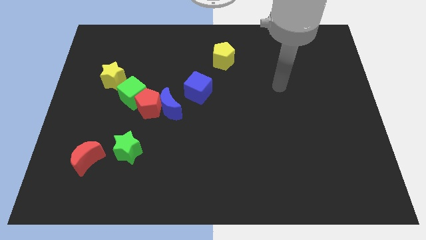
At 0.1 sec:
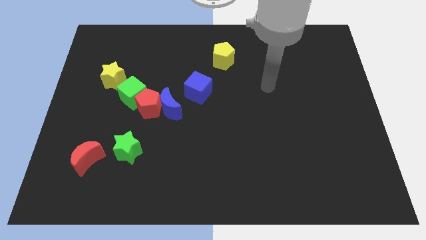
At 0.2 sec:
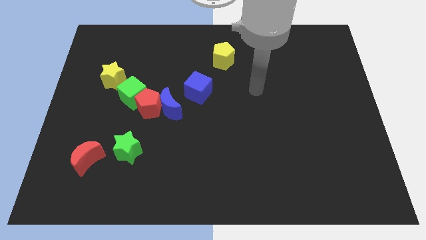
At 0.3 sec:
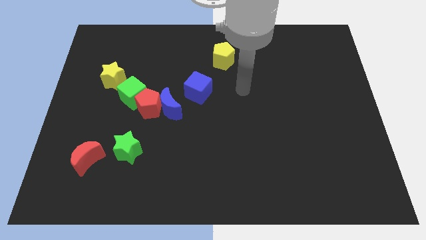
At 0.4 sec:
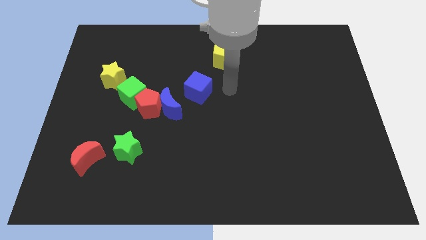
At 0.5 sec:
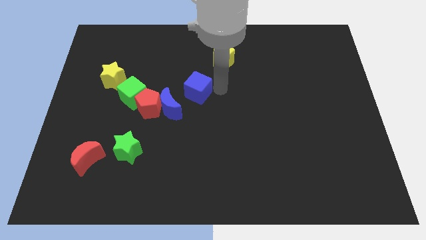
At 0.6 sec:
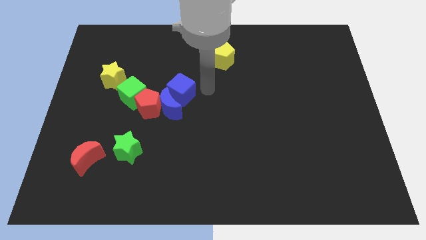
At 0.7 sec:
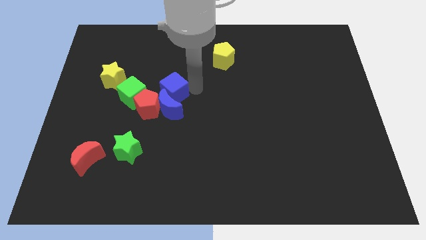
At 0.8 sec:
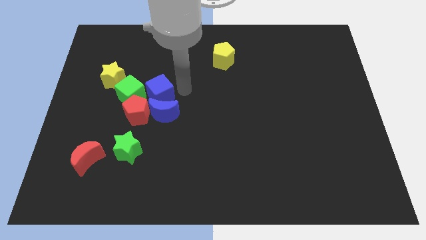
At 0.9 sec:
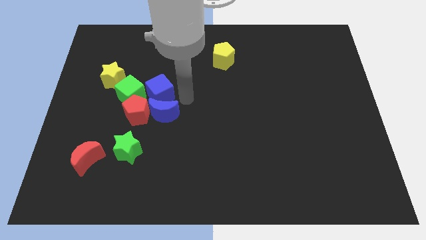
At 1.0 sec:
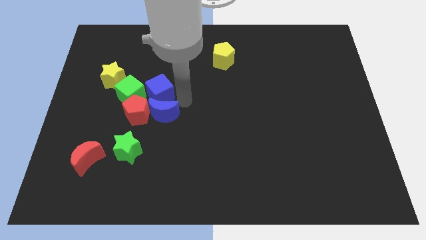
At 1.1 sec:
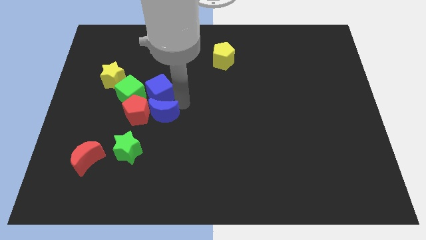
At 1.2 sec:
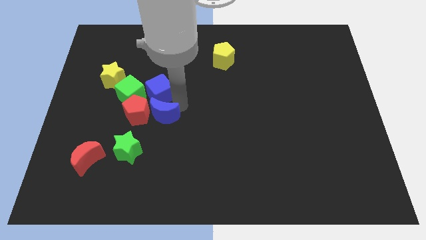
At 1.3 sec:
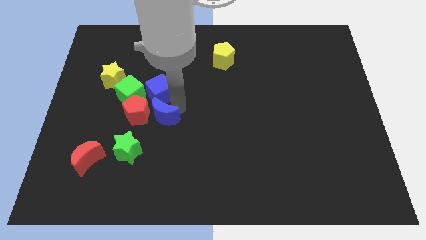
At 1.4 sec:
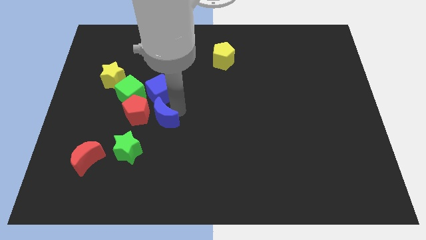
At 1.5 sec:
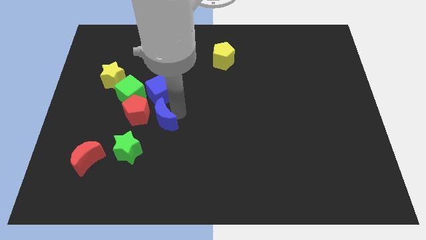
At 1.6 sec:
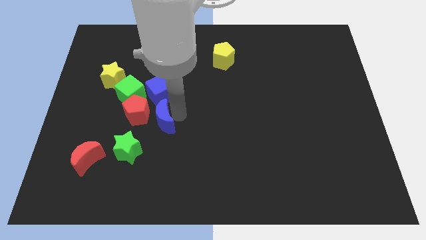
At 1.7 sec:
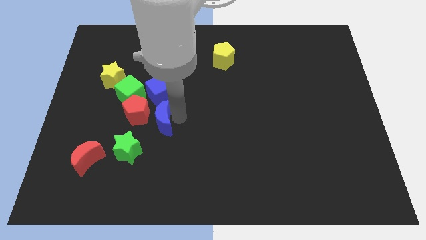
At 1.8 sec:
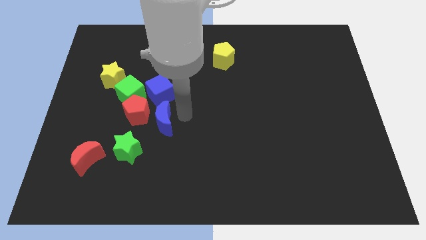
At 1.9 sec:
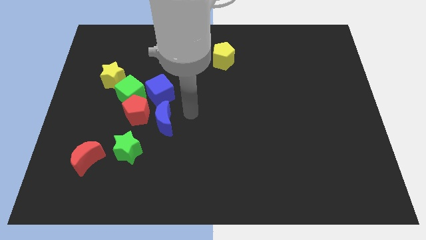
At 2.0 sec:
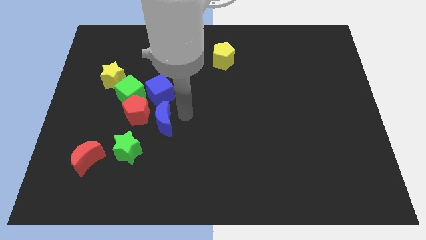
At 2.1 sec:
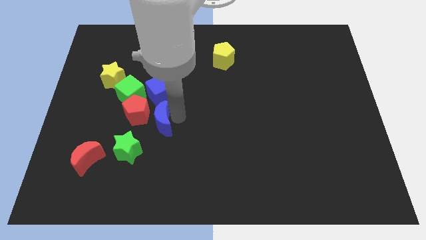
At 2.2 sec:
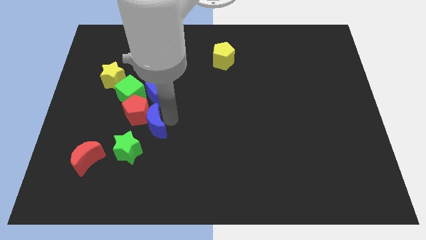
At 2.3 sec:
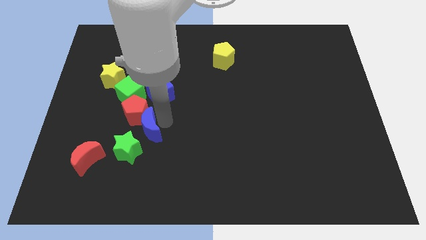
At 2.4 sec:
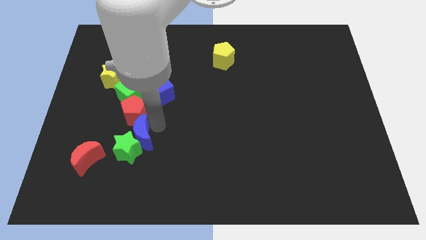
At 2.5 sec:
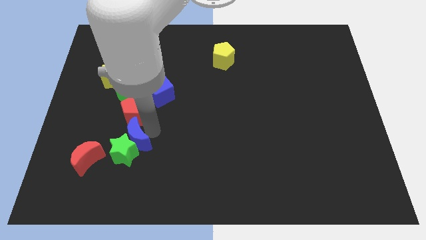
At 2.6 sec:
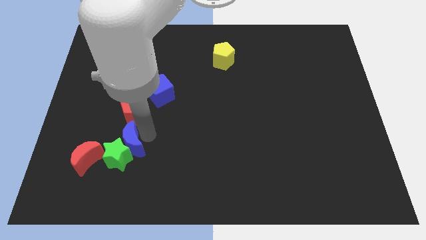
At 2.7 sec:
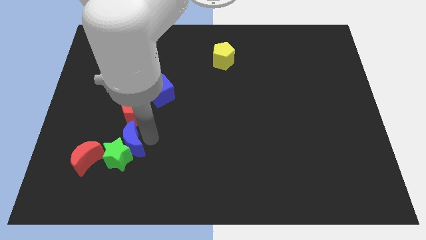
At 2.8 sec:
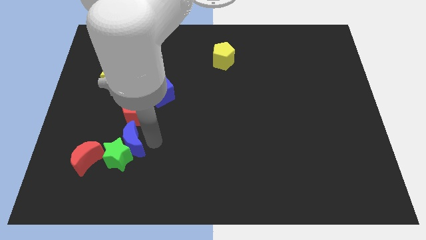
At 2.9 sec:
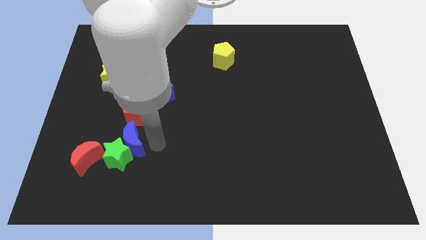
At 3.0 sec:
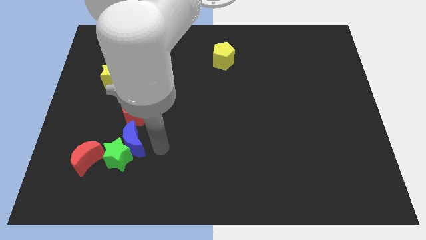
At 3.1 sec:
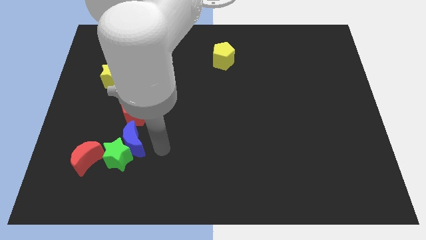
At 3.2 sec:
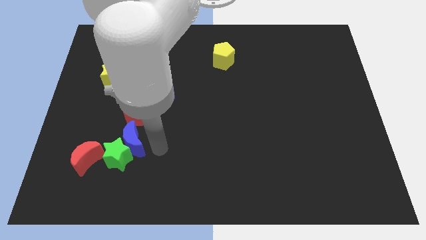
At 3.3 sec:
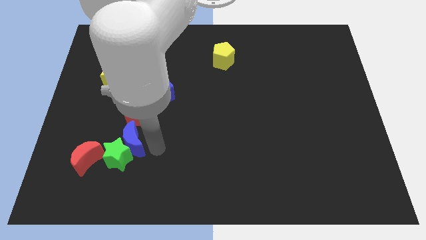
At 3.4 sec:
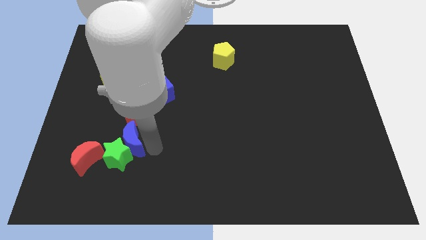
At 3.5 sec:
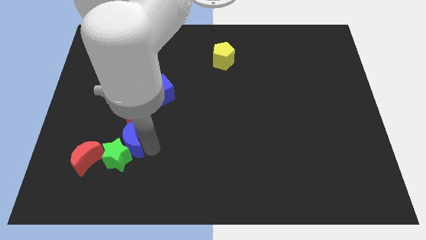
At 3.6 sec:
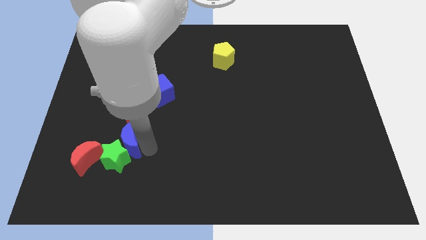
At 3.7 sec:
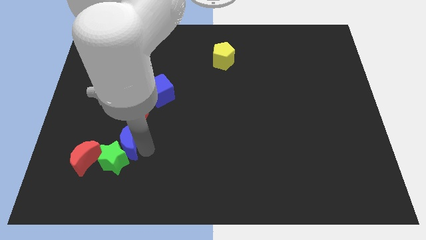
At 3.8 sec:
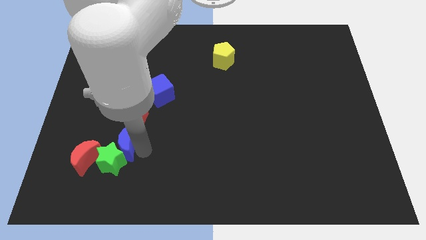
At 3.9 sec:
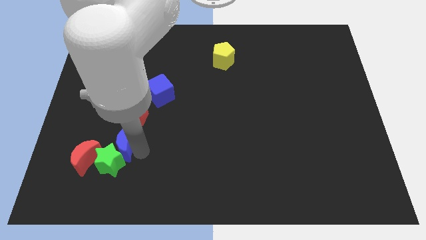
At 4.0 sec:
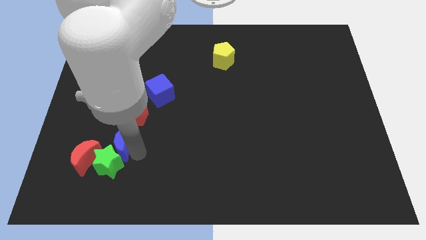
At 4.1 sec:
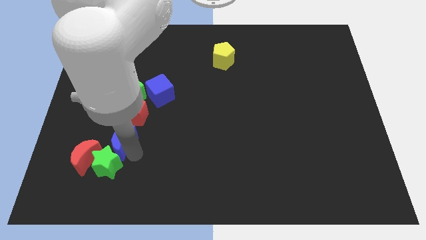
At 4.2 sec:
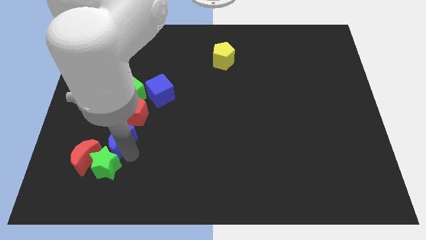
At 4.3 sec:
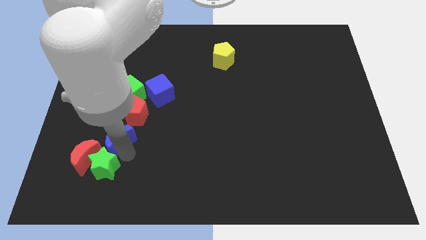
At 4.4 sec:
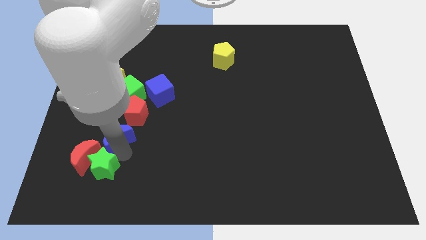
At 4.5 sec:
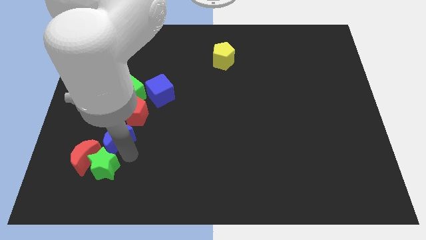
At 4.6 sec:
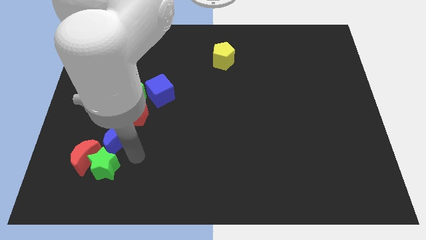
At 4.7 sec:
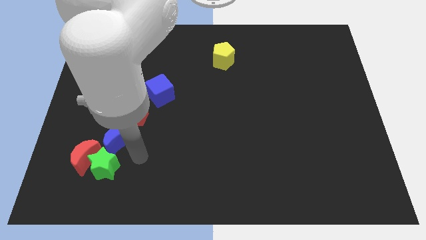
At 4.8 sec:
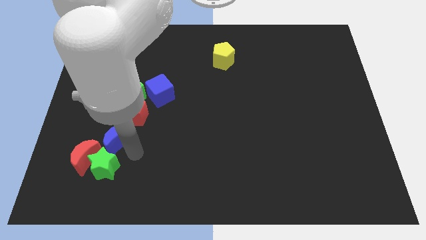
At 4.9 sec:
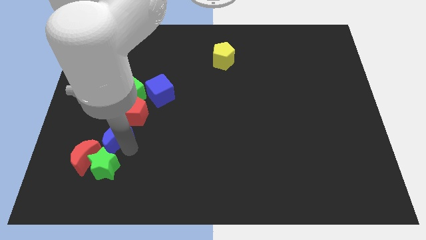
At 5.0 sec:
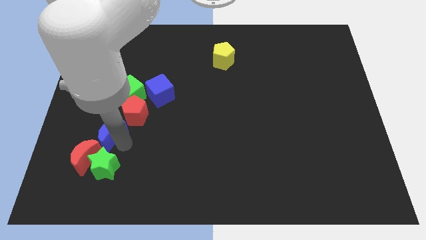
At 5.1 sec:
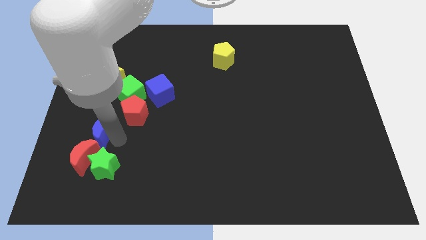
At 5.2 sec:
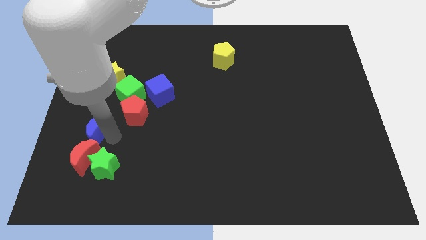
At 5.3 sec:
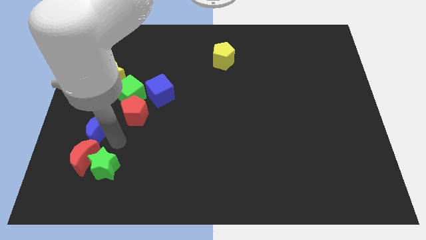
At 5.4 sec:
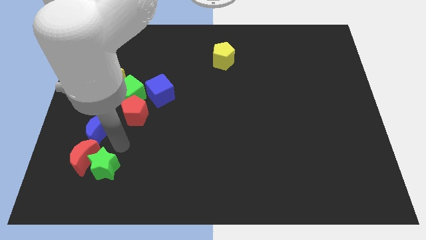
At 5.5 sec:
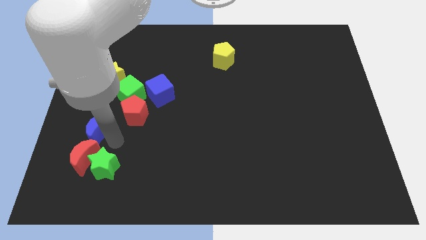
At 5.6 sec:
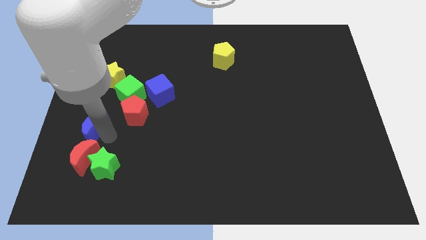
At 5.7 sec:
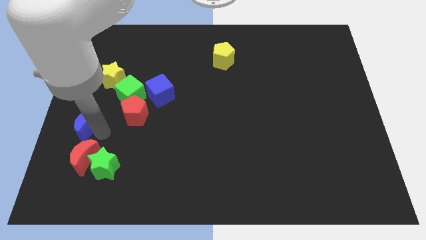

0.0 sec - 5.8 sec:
move the blue moon to the left side

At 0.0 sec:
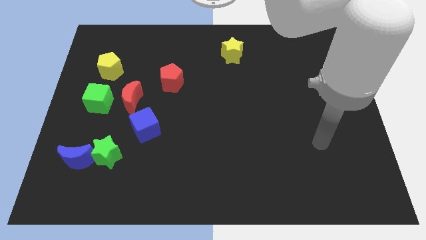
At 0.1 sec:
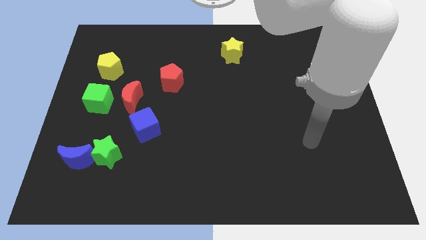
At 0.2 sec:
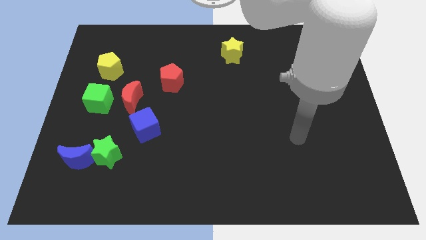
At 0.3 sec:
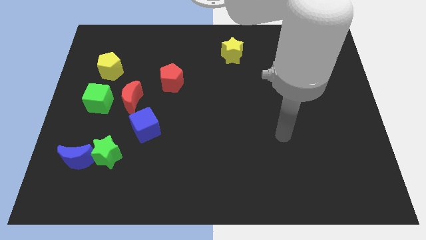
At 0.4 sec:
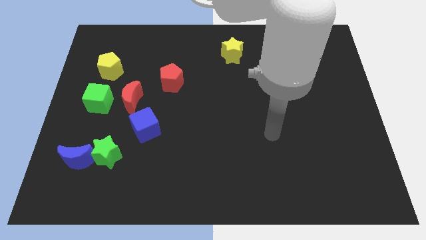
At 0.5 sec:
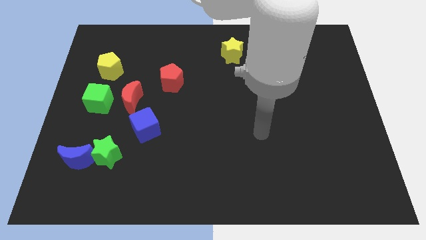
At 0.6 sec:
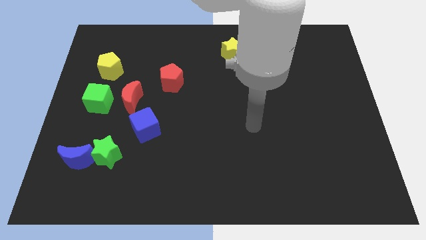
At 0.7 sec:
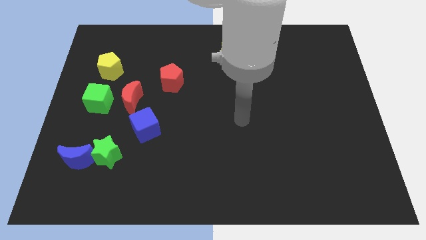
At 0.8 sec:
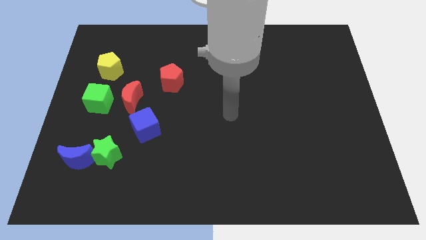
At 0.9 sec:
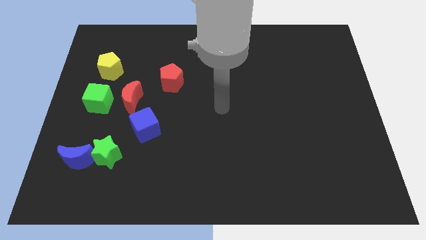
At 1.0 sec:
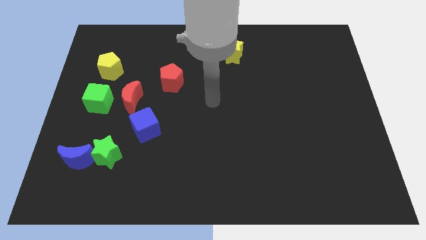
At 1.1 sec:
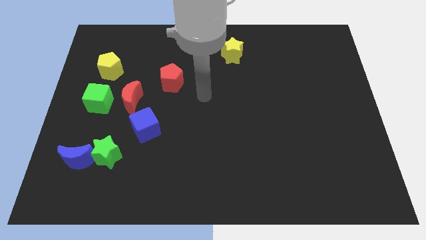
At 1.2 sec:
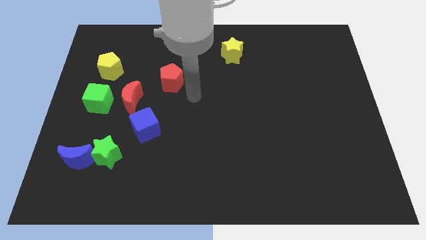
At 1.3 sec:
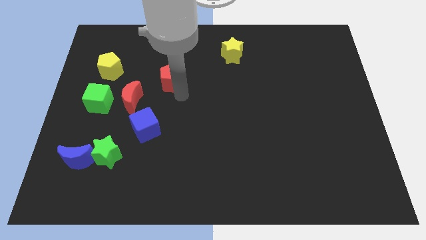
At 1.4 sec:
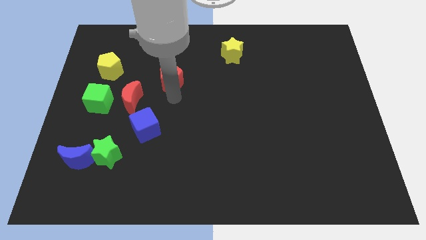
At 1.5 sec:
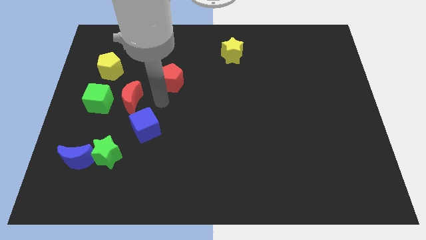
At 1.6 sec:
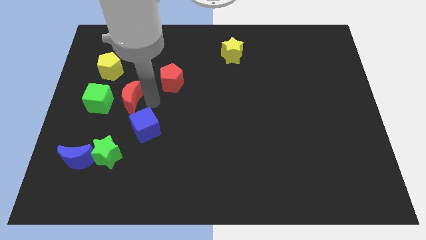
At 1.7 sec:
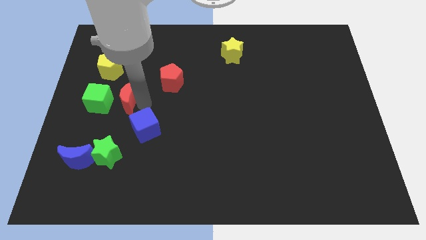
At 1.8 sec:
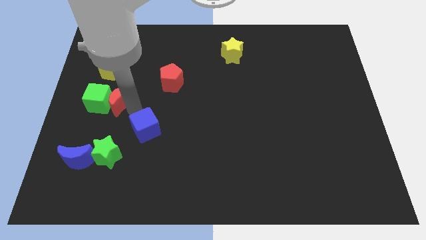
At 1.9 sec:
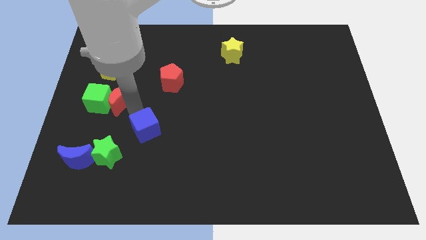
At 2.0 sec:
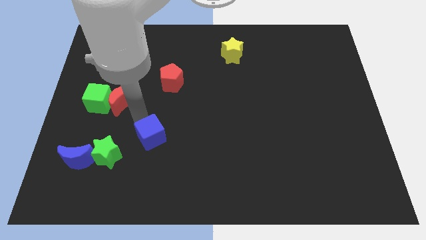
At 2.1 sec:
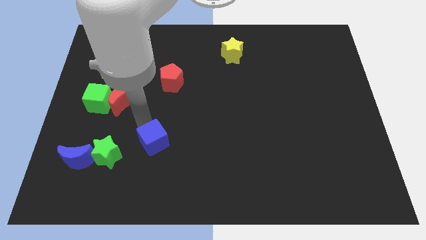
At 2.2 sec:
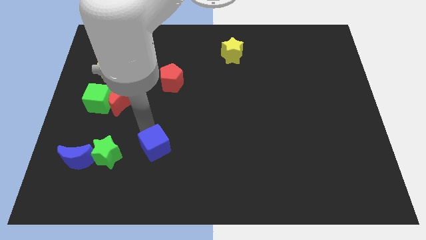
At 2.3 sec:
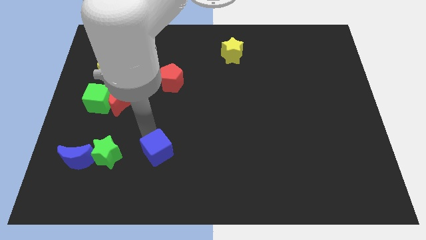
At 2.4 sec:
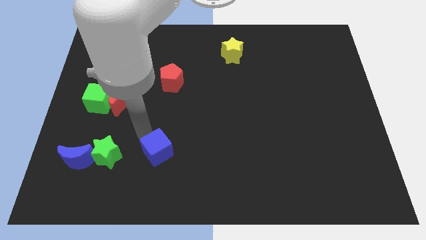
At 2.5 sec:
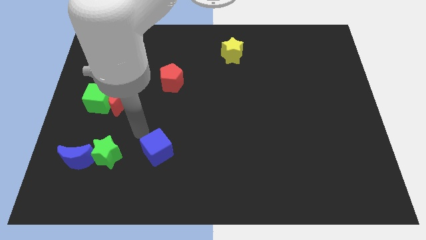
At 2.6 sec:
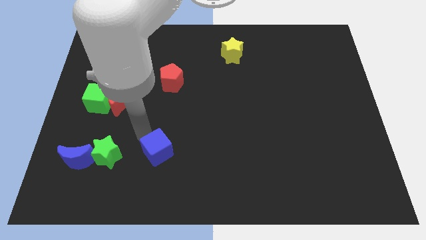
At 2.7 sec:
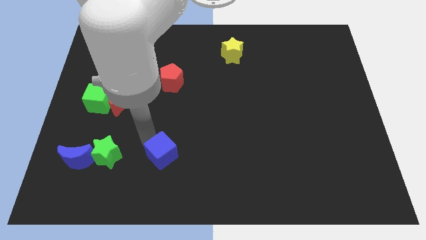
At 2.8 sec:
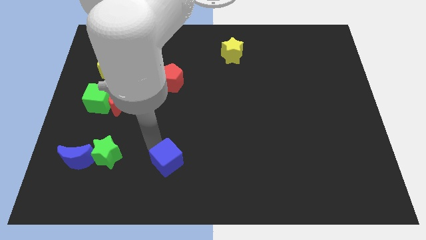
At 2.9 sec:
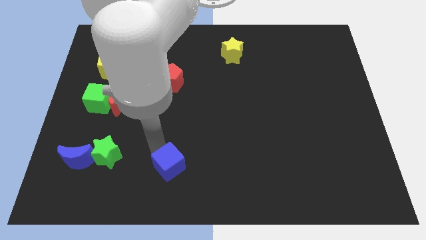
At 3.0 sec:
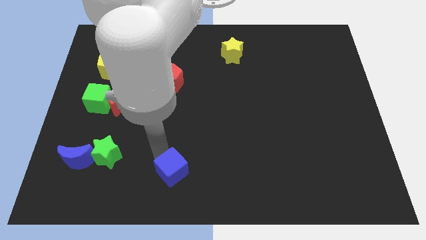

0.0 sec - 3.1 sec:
put the blue cube to the bottom
